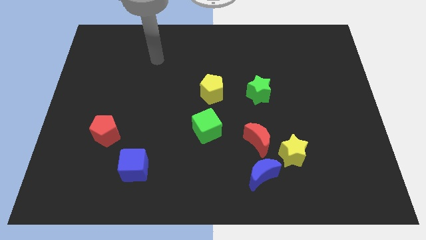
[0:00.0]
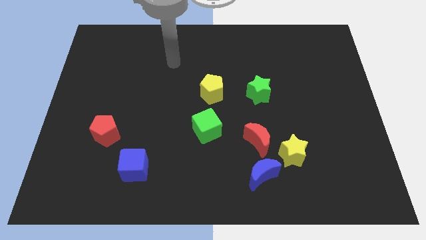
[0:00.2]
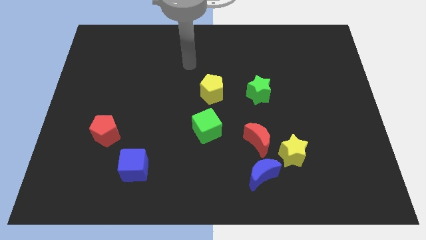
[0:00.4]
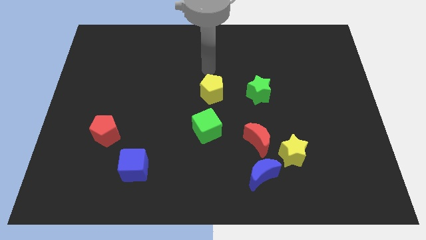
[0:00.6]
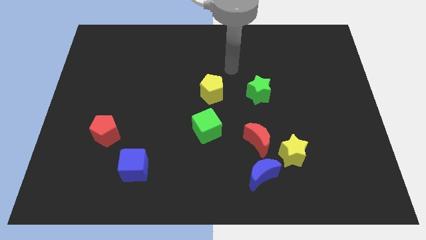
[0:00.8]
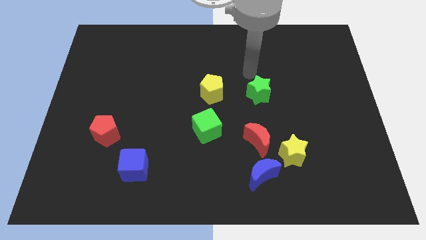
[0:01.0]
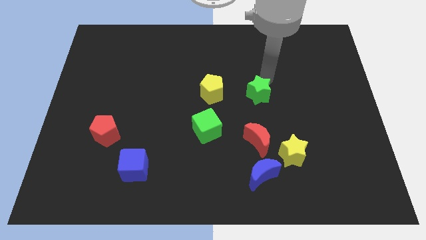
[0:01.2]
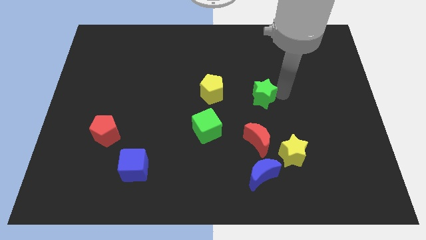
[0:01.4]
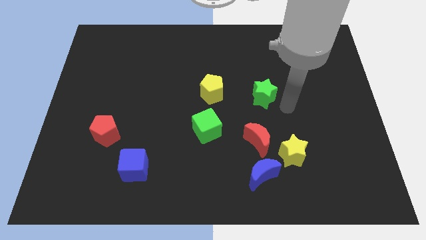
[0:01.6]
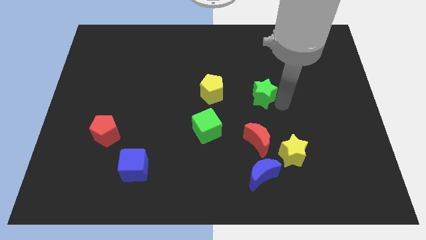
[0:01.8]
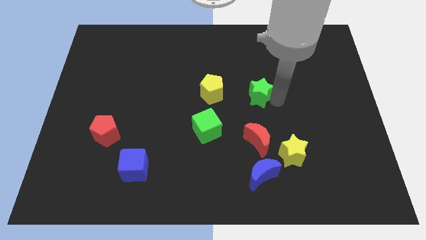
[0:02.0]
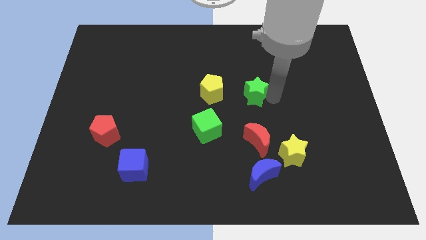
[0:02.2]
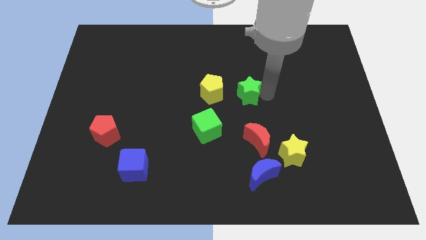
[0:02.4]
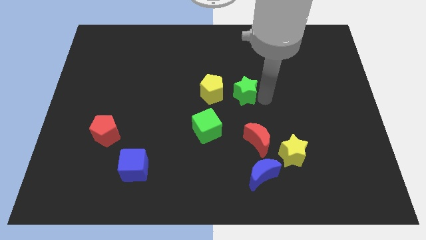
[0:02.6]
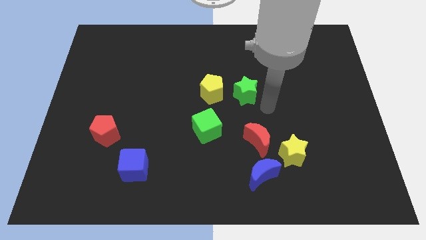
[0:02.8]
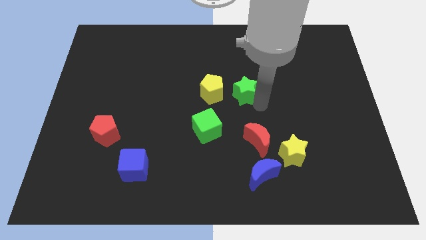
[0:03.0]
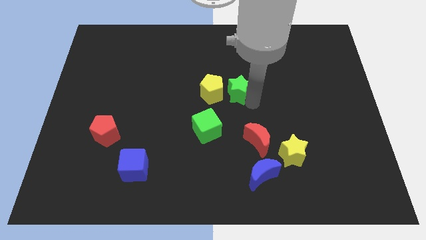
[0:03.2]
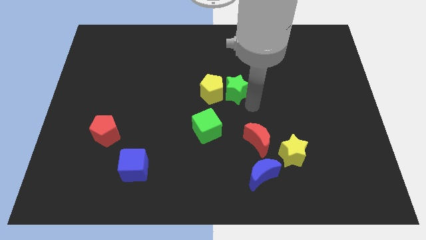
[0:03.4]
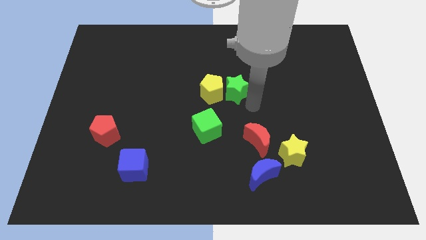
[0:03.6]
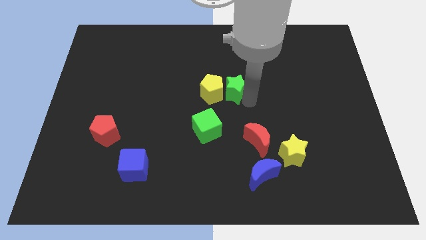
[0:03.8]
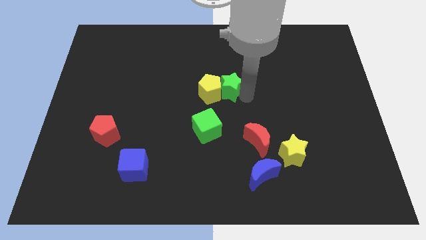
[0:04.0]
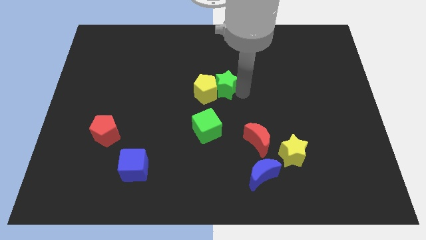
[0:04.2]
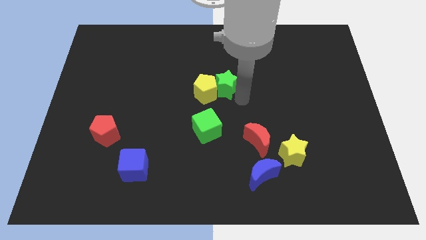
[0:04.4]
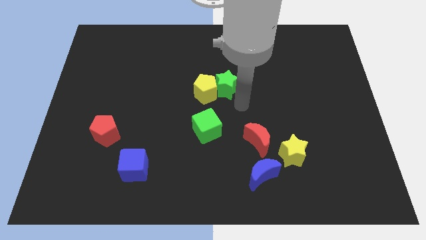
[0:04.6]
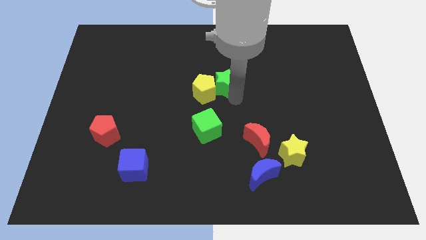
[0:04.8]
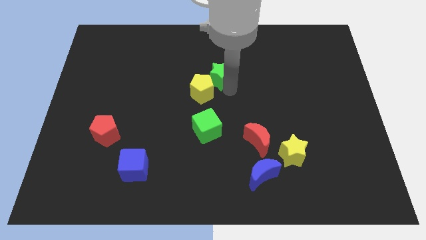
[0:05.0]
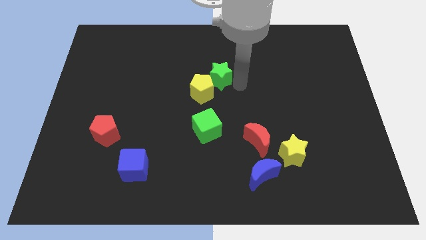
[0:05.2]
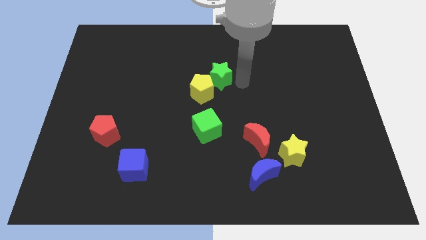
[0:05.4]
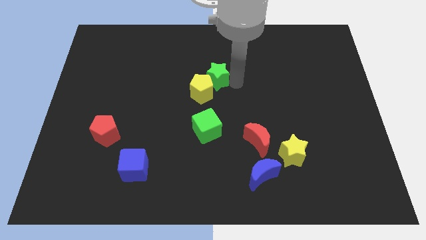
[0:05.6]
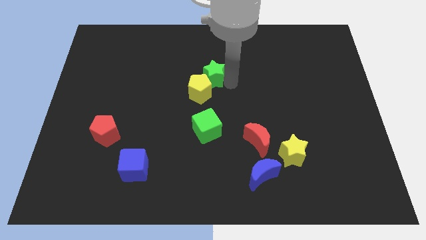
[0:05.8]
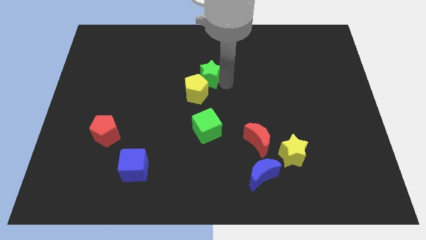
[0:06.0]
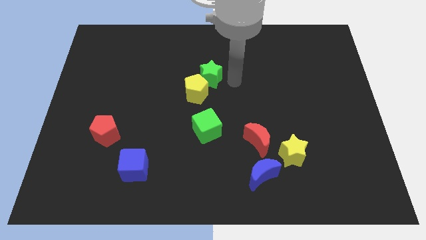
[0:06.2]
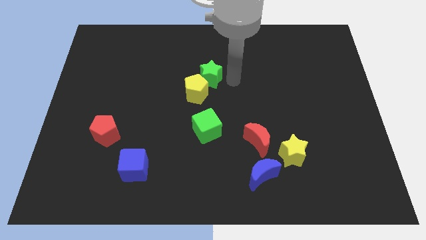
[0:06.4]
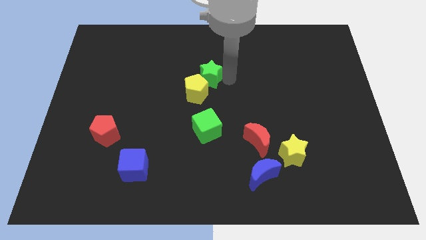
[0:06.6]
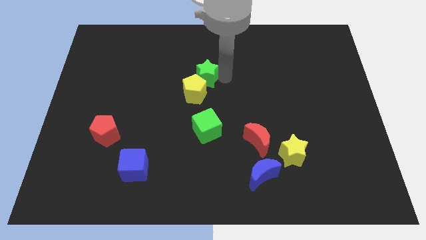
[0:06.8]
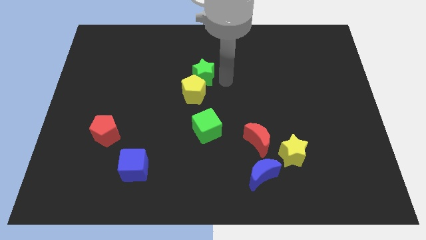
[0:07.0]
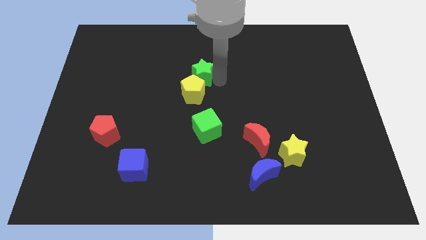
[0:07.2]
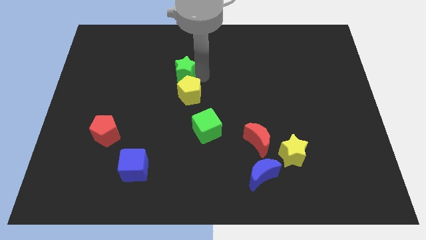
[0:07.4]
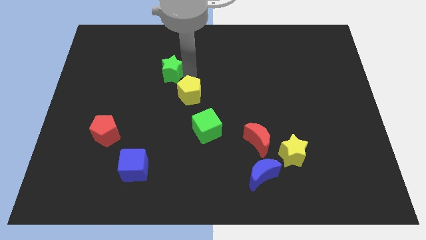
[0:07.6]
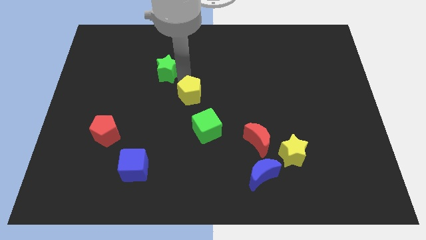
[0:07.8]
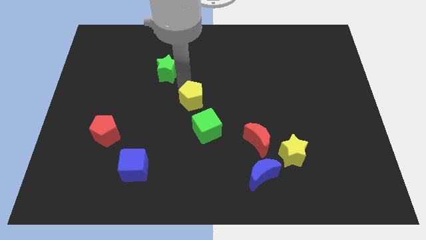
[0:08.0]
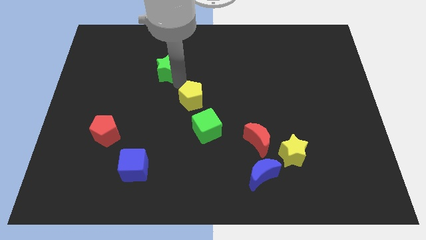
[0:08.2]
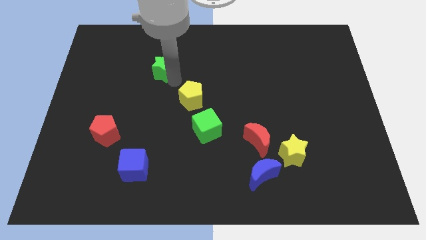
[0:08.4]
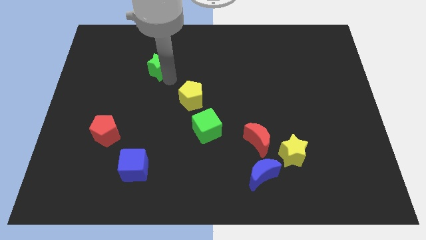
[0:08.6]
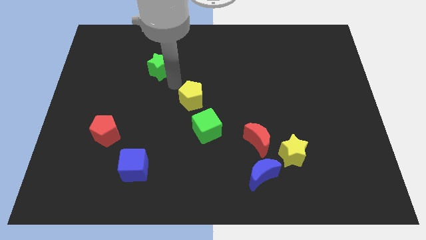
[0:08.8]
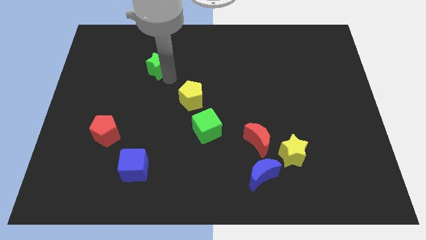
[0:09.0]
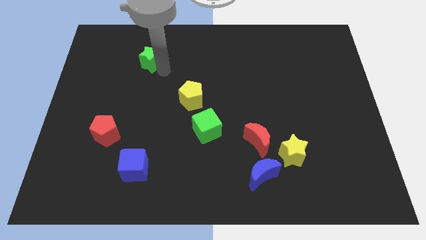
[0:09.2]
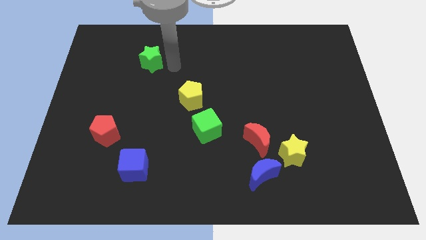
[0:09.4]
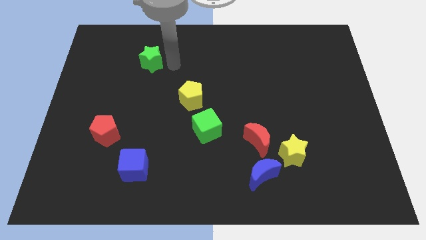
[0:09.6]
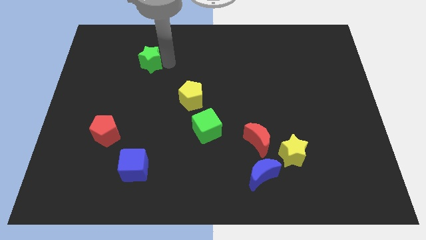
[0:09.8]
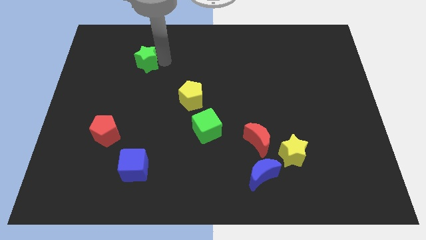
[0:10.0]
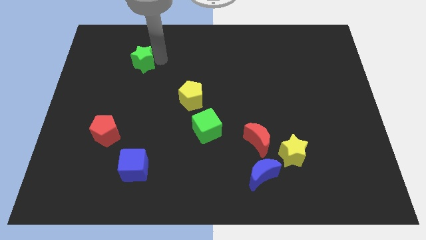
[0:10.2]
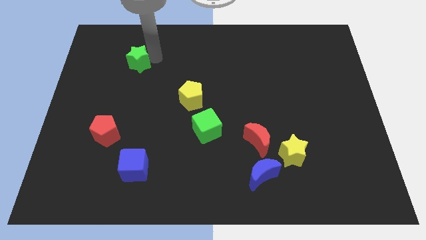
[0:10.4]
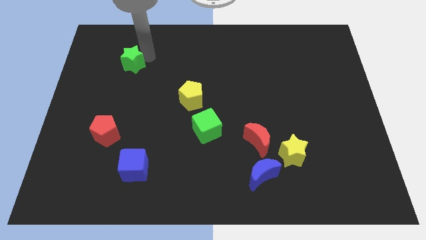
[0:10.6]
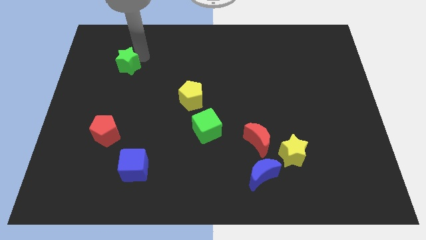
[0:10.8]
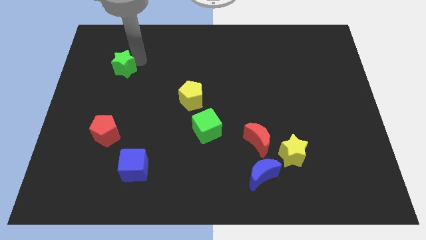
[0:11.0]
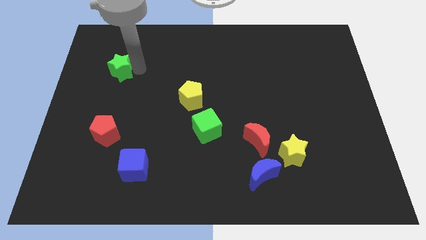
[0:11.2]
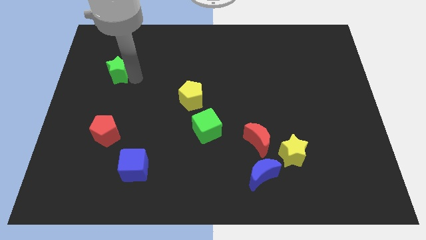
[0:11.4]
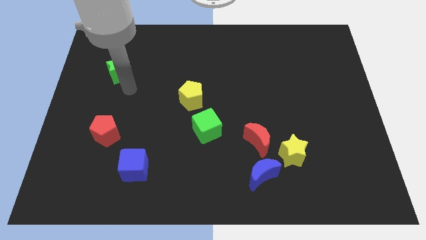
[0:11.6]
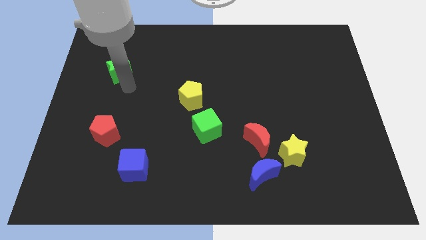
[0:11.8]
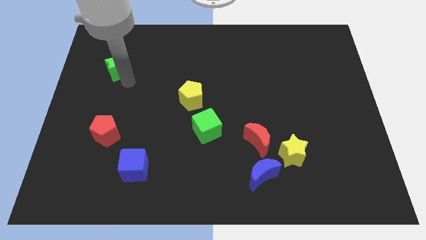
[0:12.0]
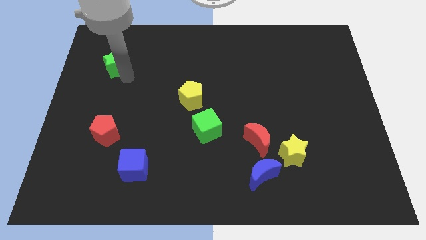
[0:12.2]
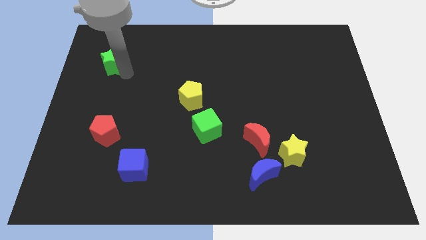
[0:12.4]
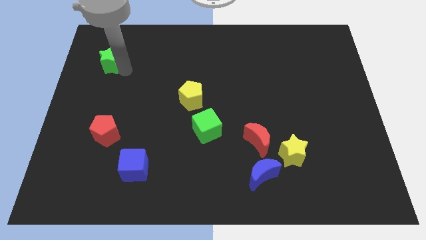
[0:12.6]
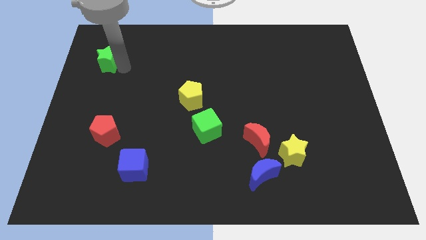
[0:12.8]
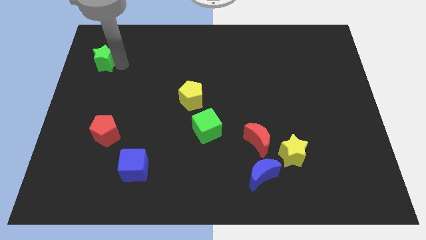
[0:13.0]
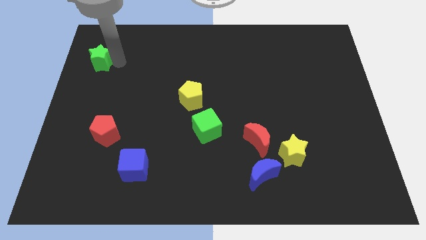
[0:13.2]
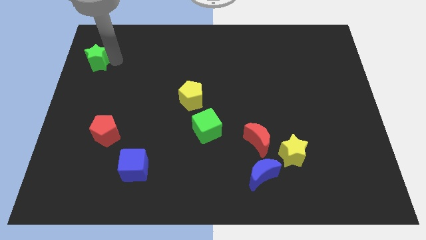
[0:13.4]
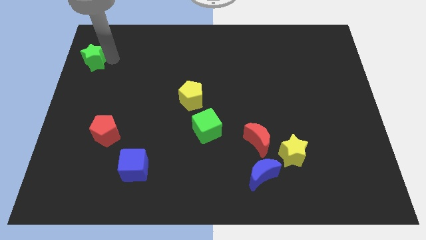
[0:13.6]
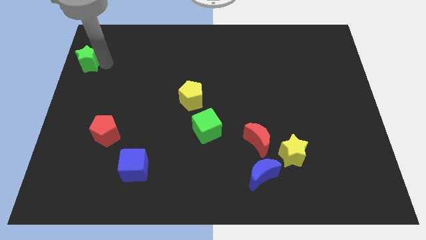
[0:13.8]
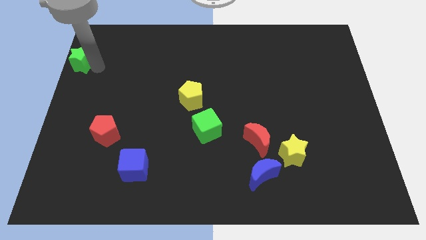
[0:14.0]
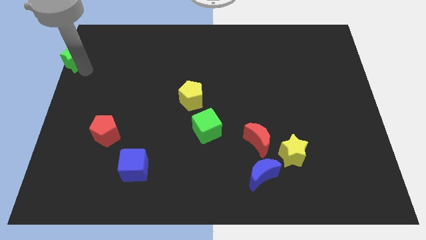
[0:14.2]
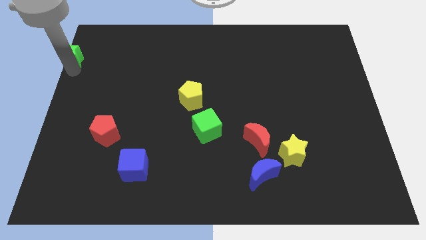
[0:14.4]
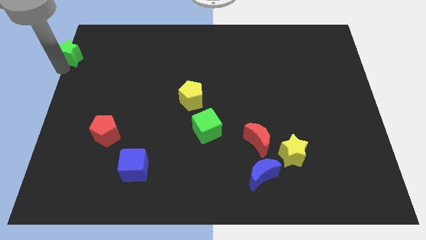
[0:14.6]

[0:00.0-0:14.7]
move the green star to the upper left corner
